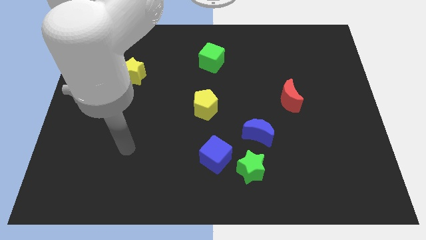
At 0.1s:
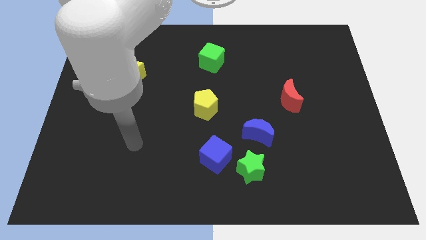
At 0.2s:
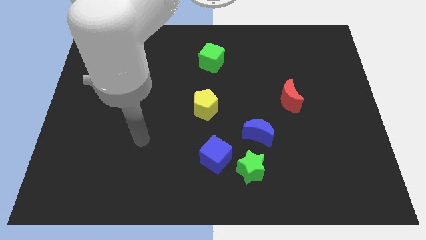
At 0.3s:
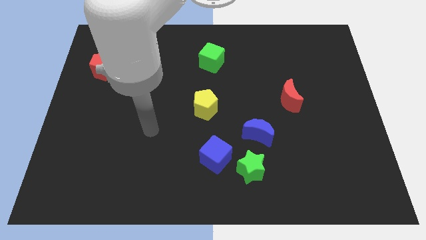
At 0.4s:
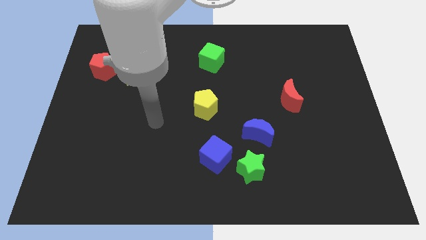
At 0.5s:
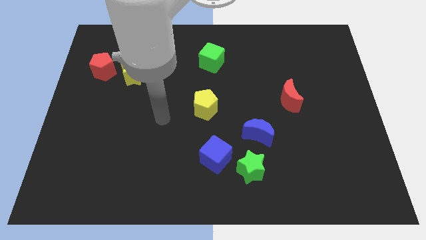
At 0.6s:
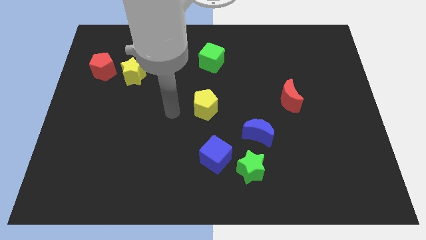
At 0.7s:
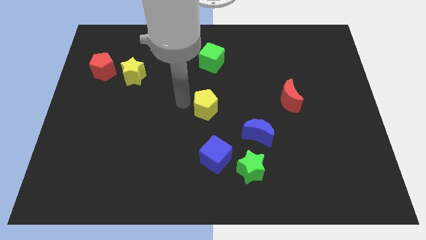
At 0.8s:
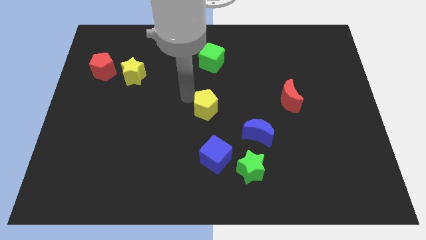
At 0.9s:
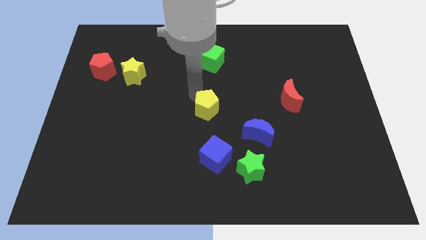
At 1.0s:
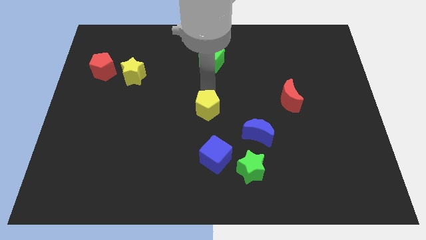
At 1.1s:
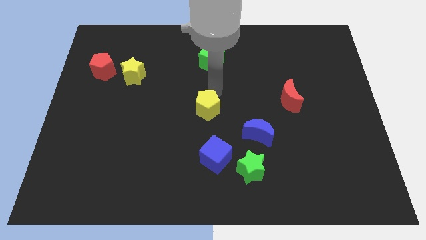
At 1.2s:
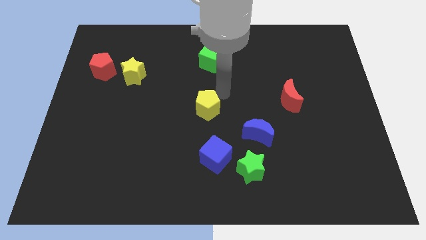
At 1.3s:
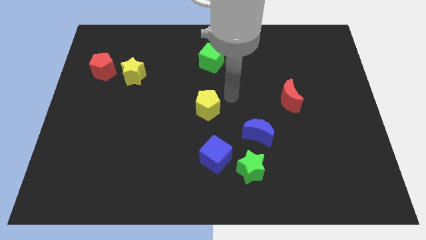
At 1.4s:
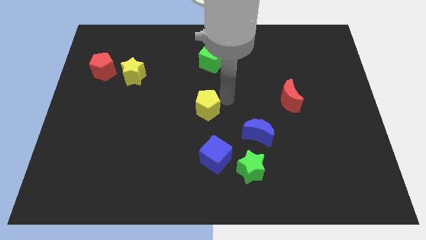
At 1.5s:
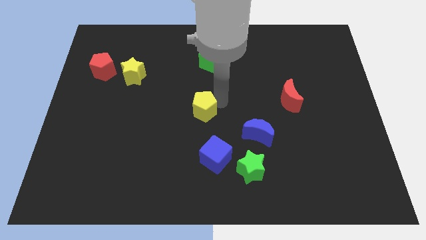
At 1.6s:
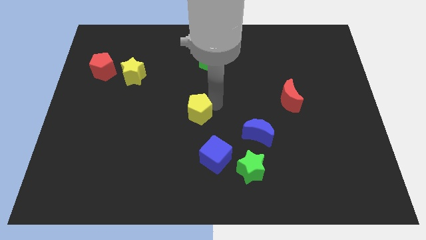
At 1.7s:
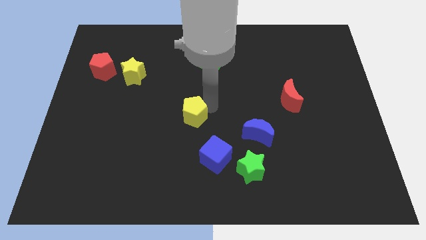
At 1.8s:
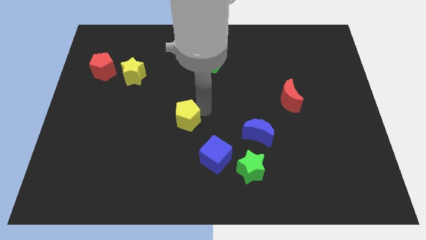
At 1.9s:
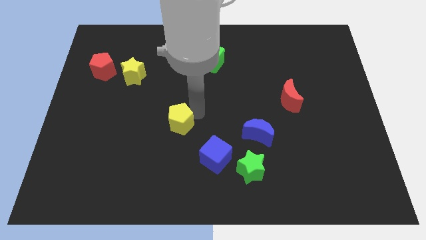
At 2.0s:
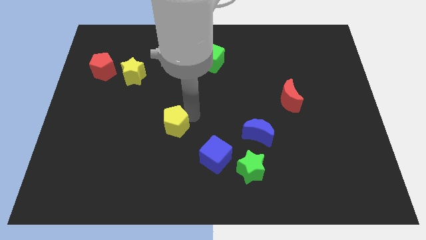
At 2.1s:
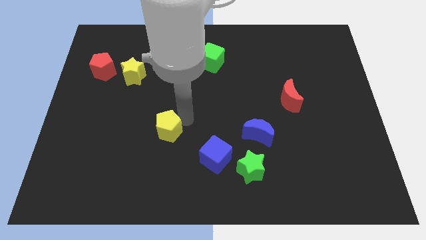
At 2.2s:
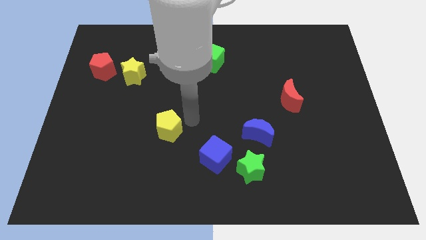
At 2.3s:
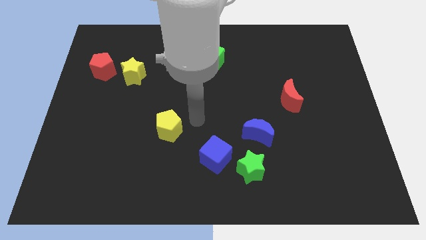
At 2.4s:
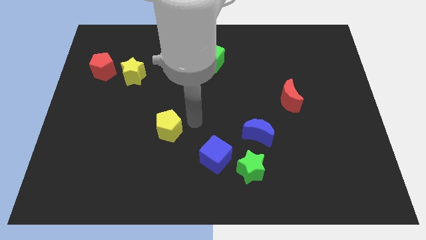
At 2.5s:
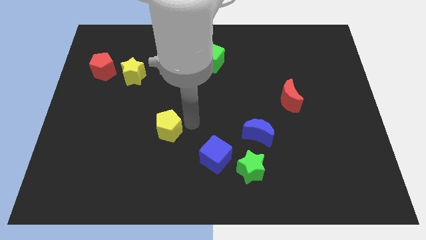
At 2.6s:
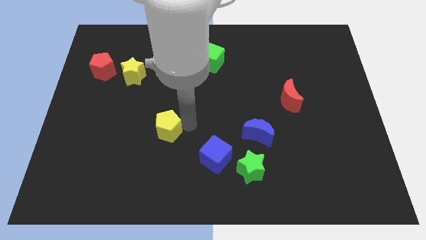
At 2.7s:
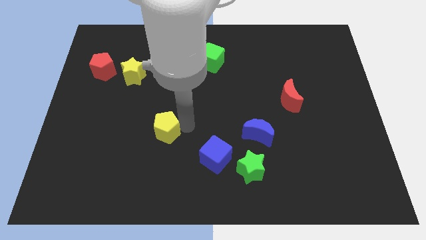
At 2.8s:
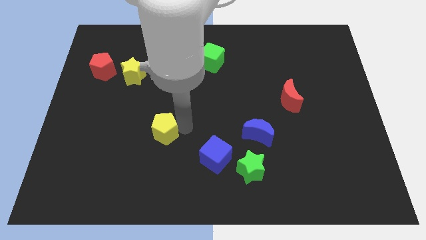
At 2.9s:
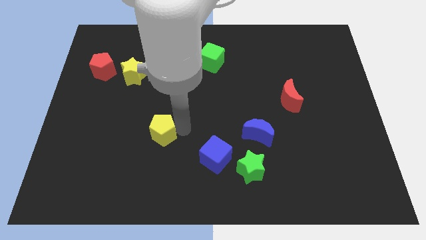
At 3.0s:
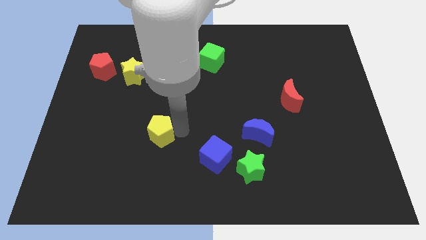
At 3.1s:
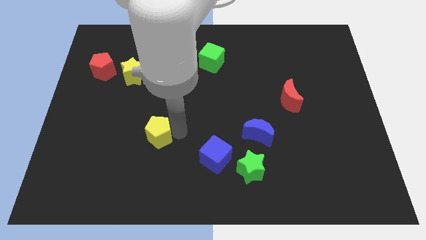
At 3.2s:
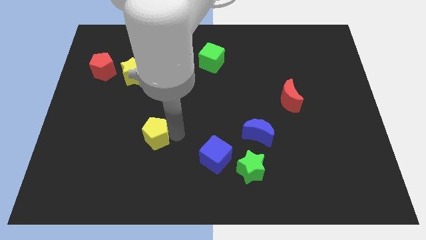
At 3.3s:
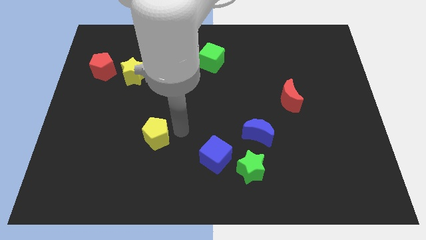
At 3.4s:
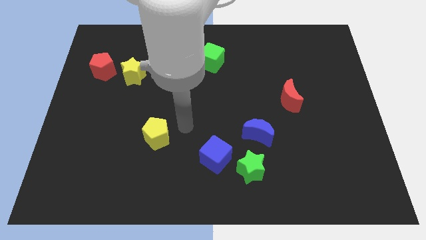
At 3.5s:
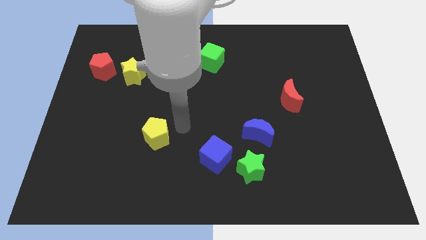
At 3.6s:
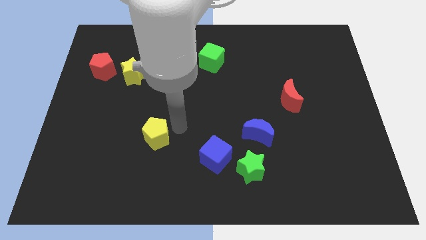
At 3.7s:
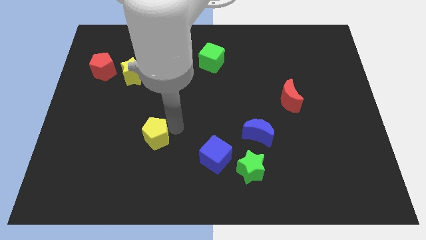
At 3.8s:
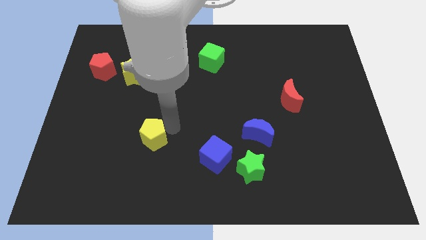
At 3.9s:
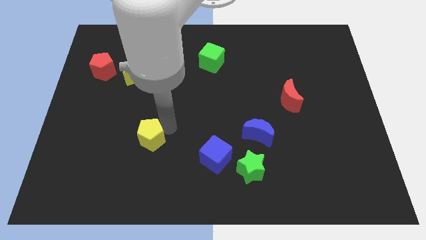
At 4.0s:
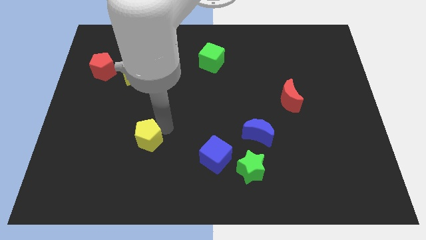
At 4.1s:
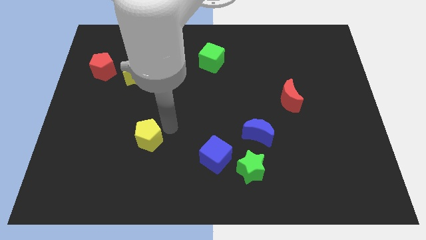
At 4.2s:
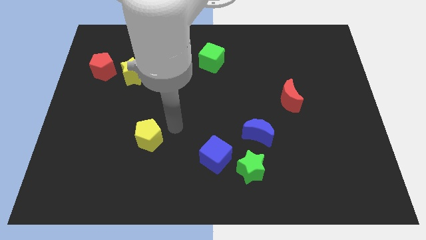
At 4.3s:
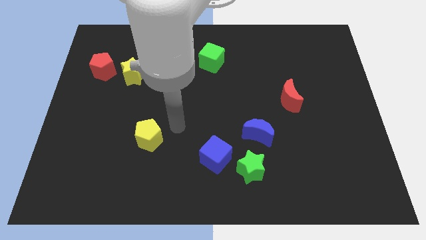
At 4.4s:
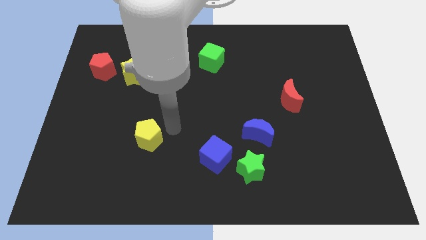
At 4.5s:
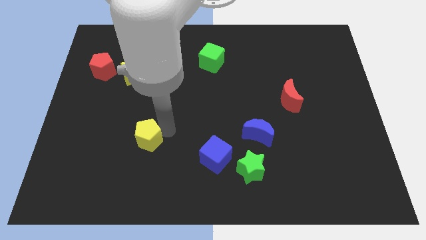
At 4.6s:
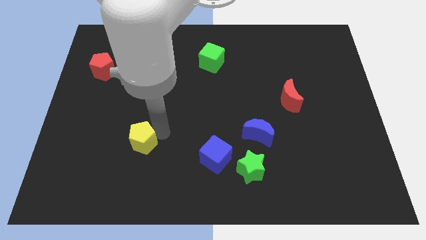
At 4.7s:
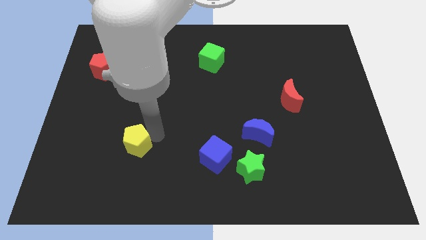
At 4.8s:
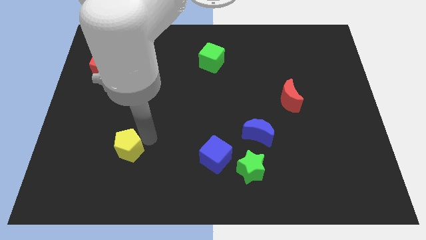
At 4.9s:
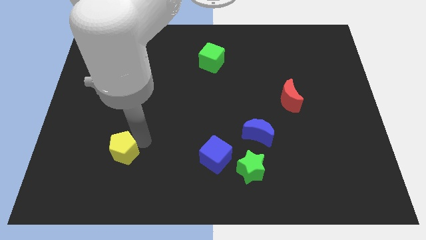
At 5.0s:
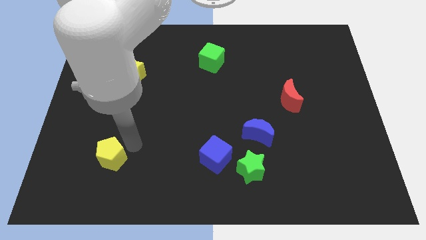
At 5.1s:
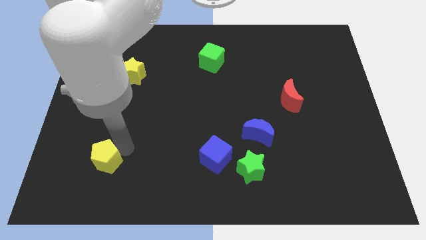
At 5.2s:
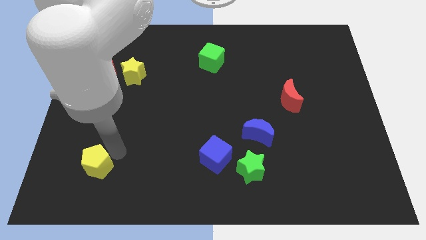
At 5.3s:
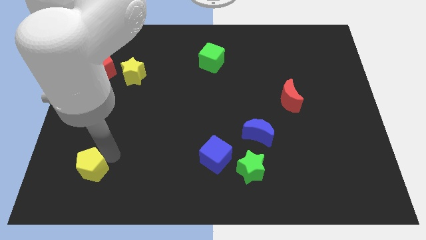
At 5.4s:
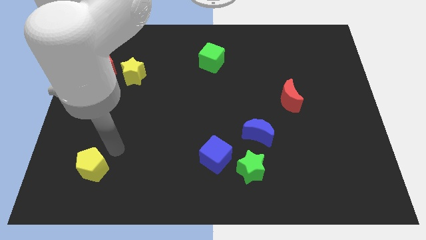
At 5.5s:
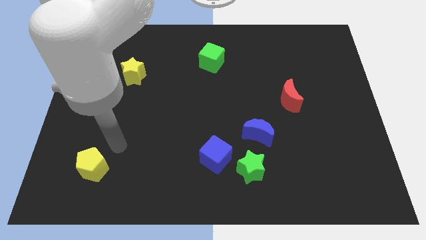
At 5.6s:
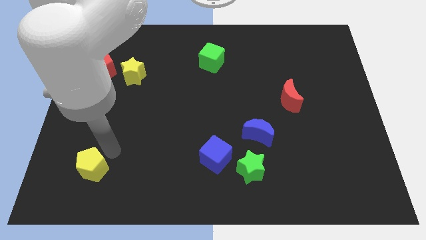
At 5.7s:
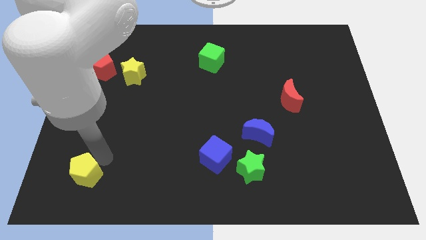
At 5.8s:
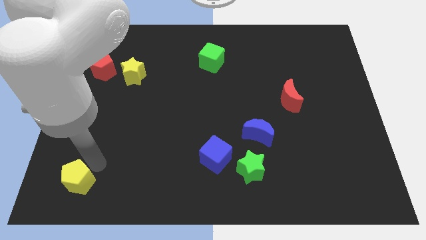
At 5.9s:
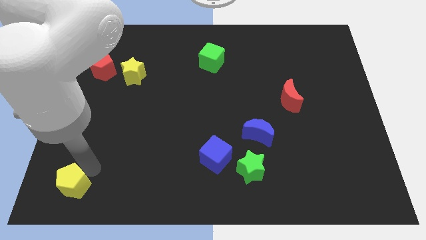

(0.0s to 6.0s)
push the yellow pentagon to the lower left corner

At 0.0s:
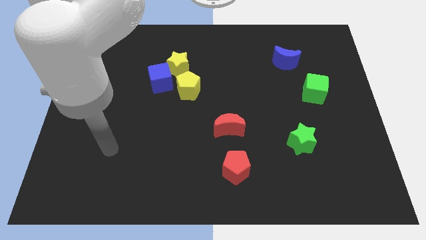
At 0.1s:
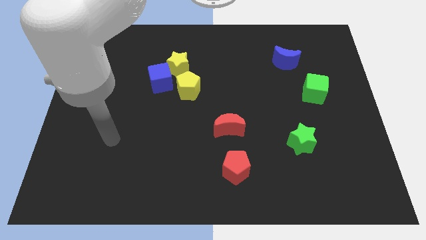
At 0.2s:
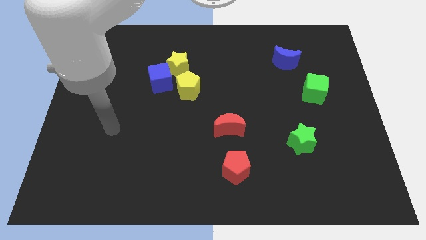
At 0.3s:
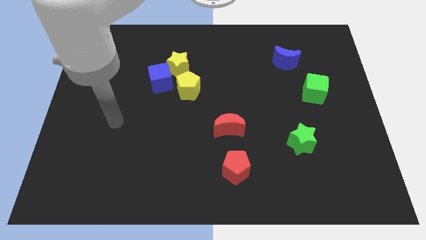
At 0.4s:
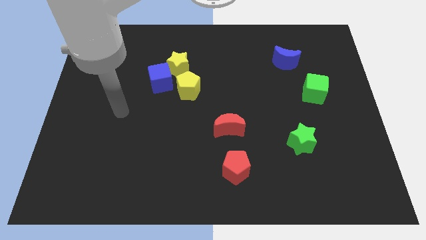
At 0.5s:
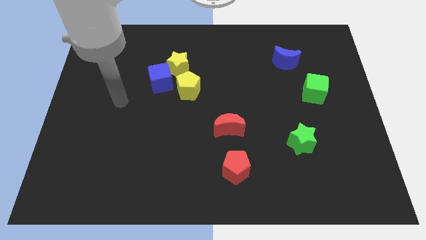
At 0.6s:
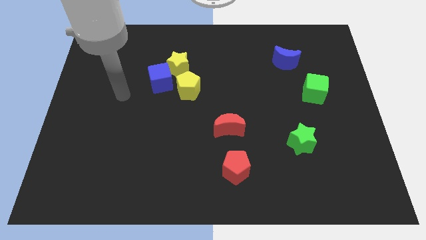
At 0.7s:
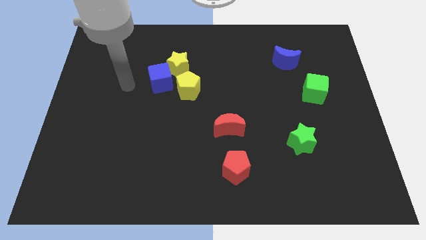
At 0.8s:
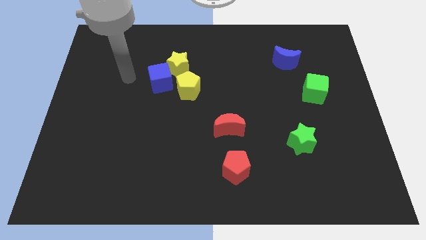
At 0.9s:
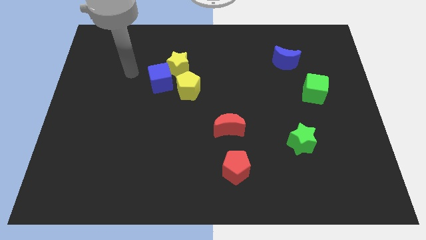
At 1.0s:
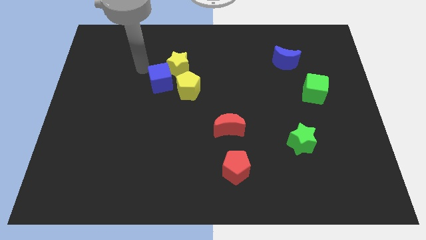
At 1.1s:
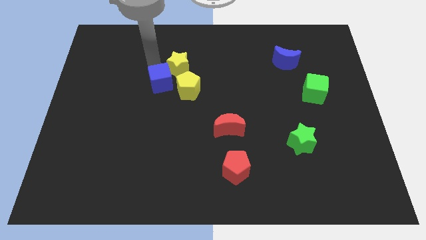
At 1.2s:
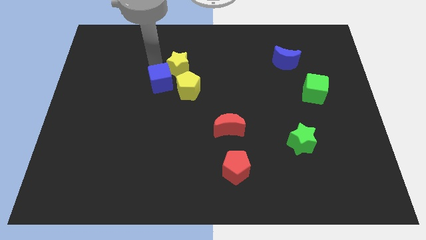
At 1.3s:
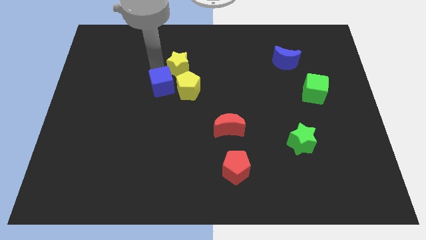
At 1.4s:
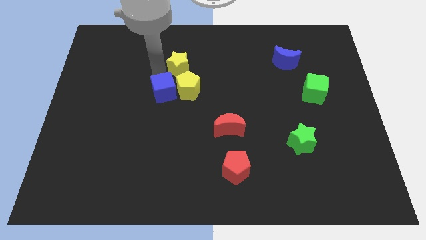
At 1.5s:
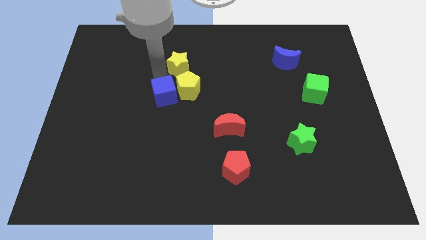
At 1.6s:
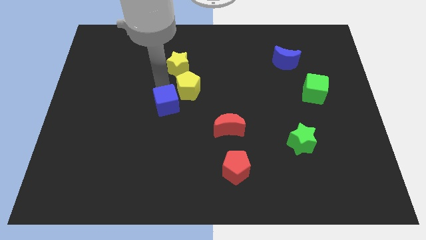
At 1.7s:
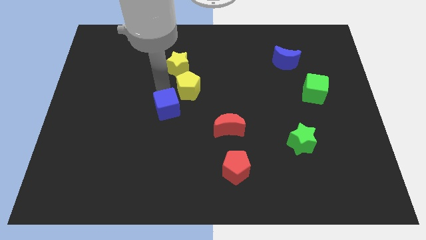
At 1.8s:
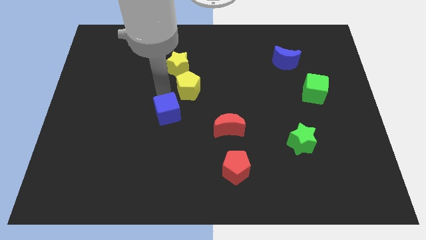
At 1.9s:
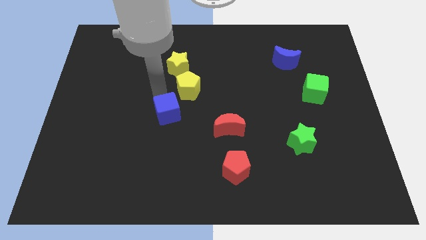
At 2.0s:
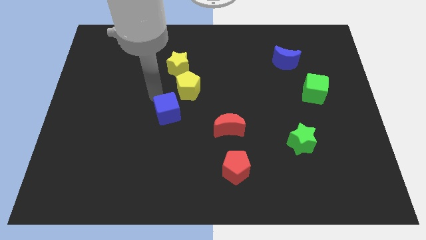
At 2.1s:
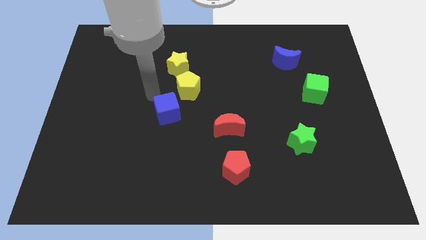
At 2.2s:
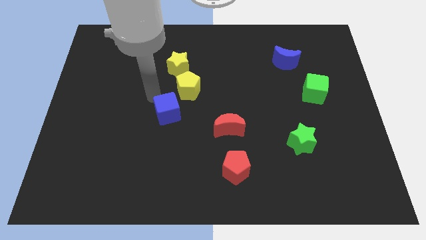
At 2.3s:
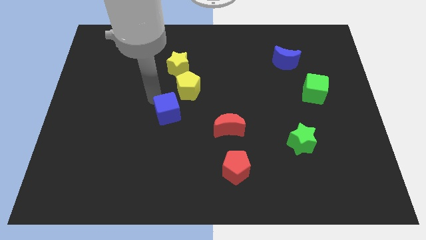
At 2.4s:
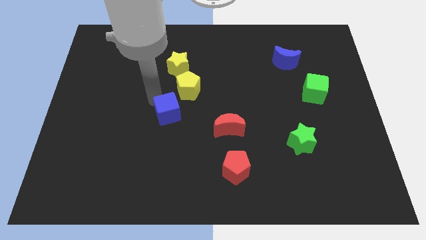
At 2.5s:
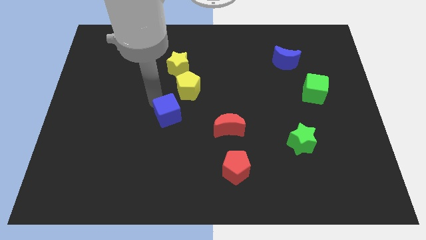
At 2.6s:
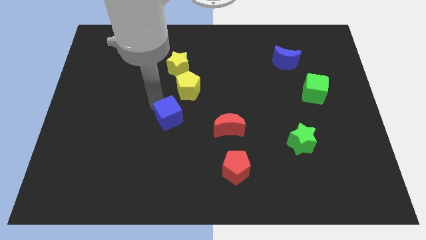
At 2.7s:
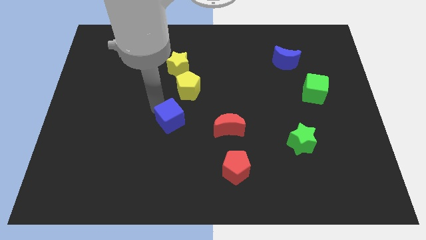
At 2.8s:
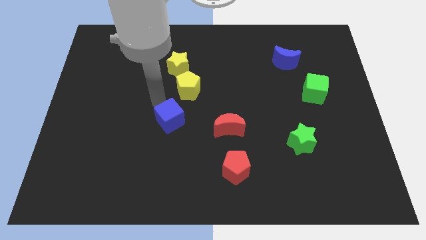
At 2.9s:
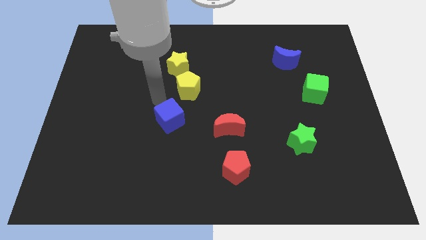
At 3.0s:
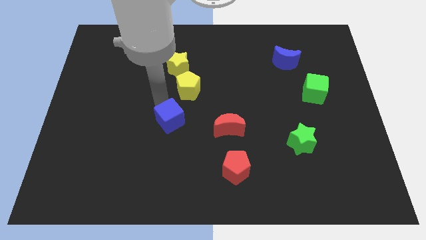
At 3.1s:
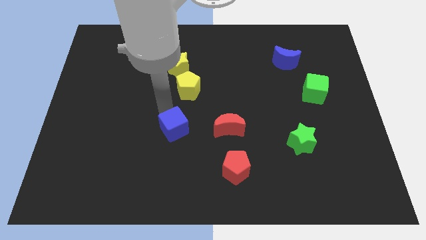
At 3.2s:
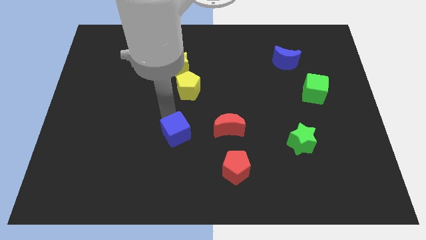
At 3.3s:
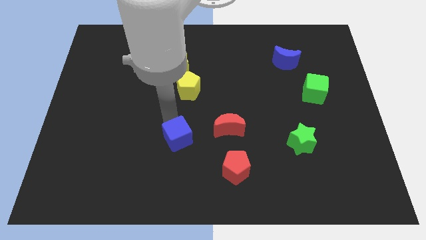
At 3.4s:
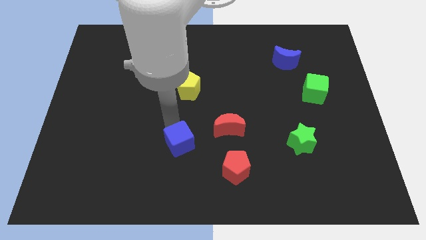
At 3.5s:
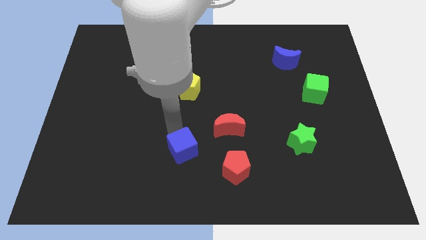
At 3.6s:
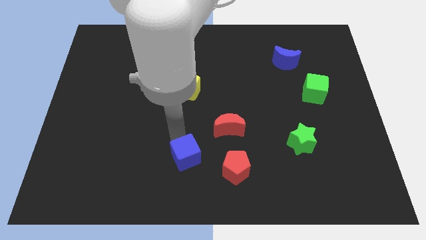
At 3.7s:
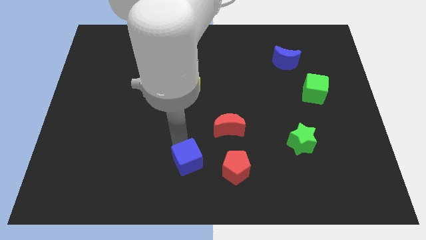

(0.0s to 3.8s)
move the blue cube to the bottom
